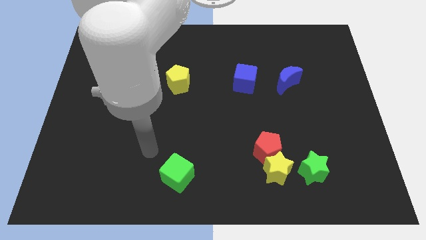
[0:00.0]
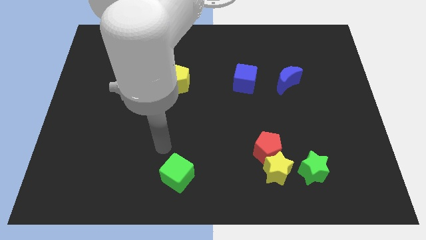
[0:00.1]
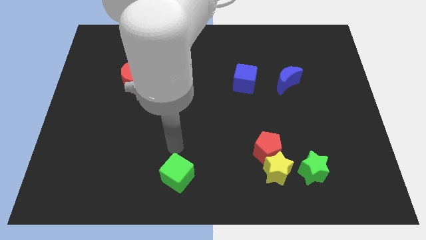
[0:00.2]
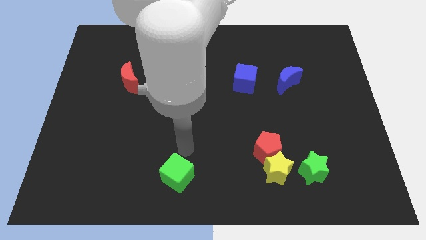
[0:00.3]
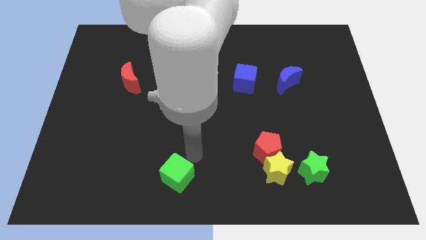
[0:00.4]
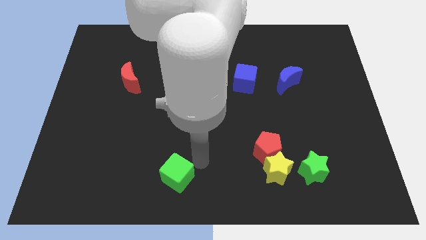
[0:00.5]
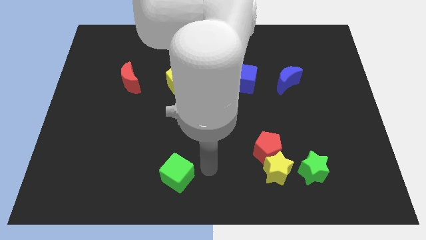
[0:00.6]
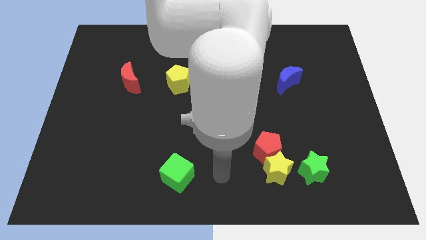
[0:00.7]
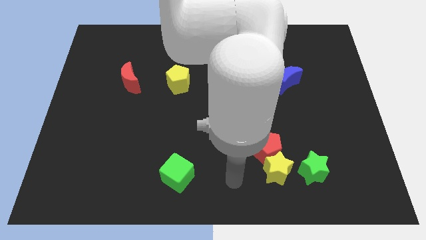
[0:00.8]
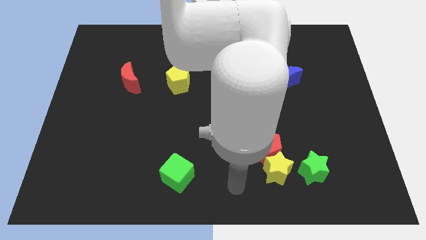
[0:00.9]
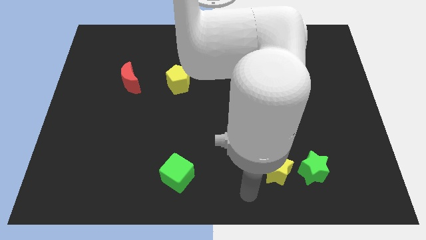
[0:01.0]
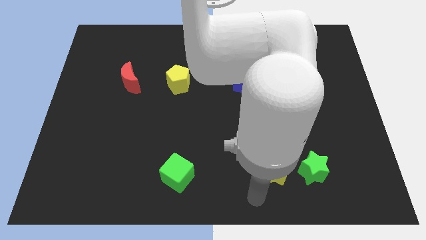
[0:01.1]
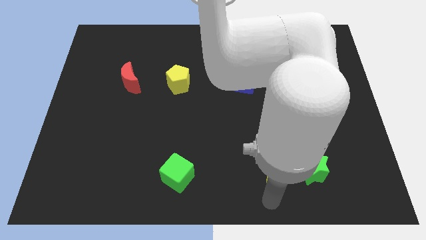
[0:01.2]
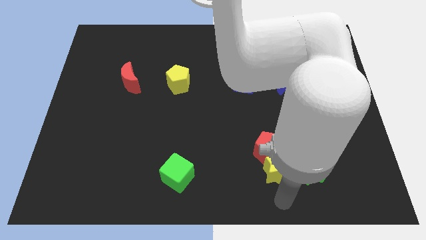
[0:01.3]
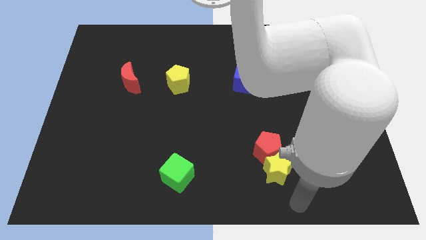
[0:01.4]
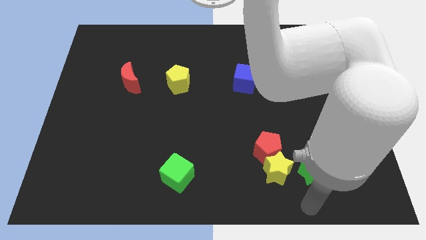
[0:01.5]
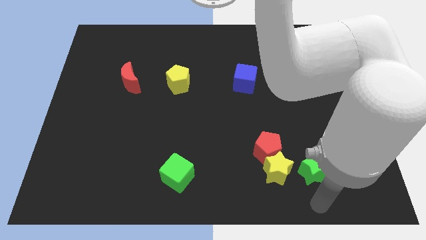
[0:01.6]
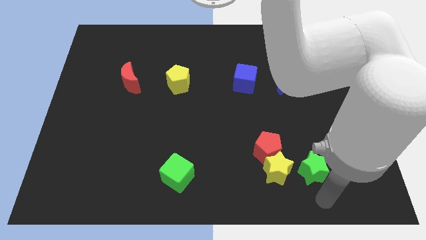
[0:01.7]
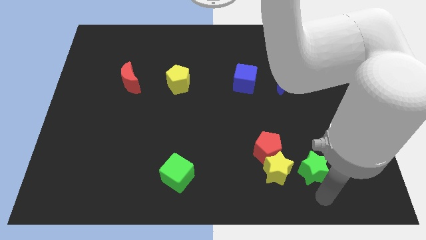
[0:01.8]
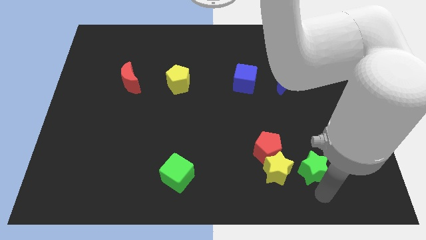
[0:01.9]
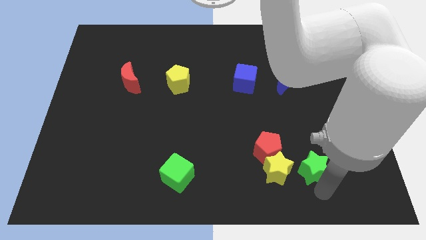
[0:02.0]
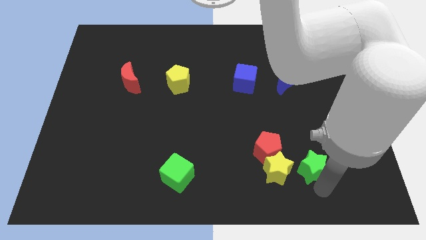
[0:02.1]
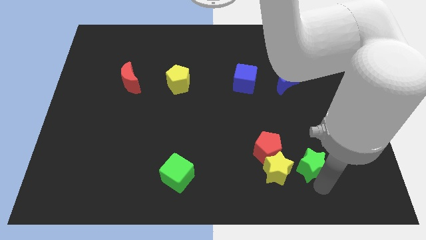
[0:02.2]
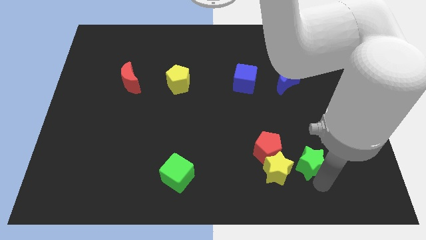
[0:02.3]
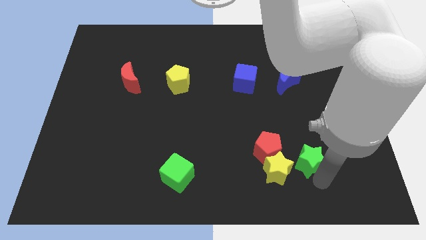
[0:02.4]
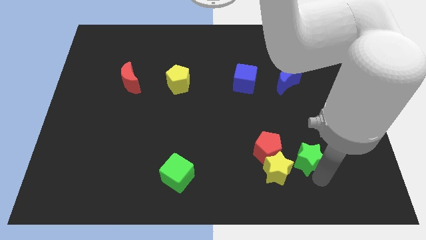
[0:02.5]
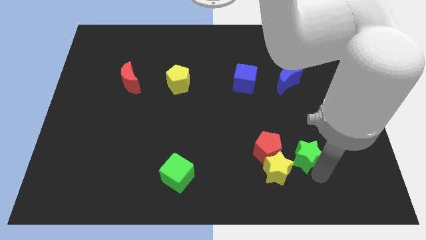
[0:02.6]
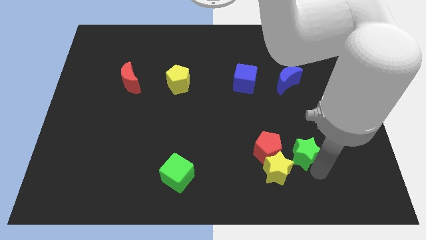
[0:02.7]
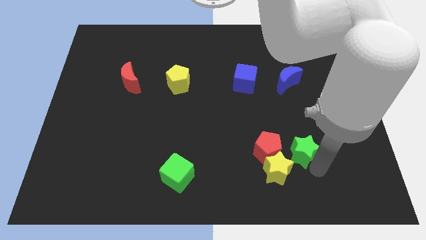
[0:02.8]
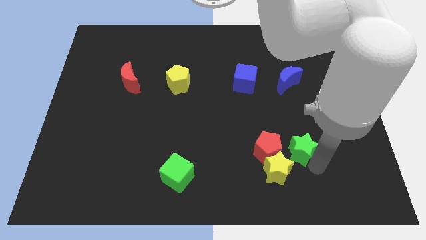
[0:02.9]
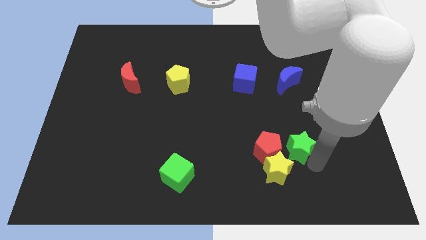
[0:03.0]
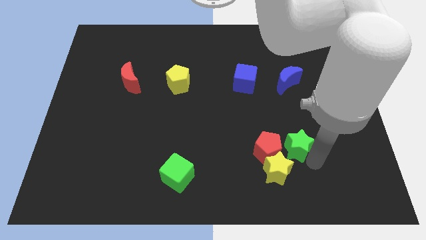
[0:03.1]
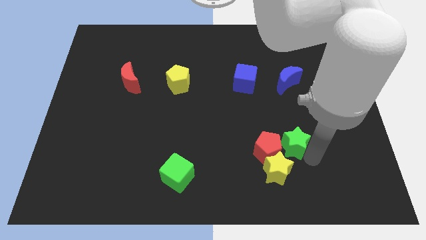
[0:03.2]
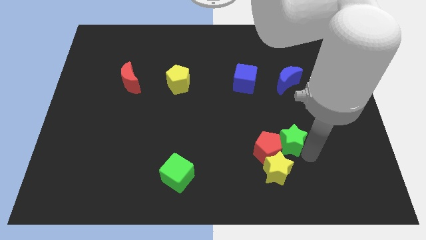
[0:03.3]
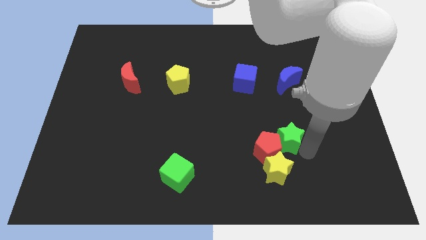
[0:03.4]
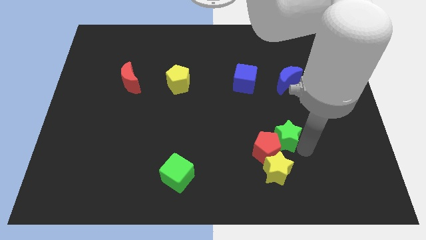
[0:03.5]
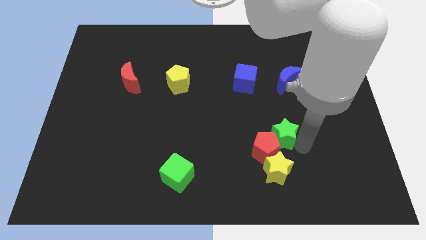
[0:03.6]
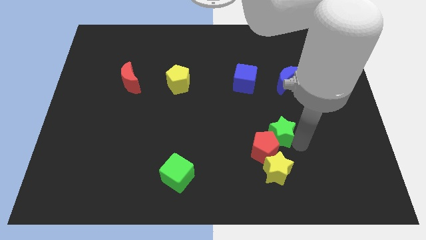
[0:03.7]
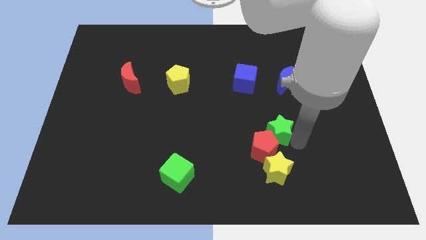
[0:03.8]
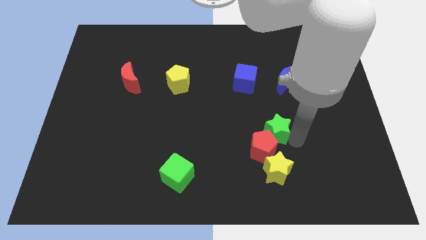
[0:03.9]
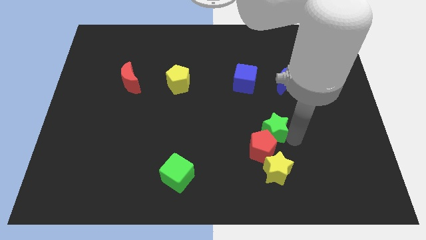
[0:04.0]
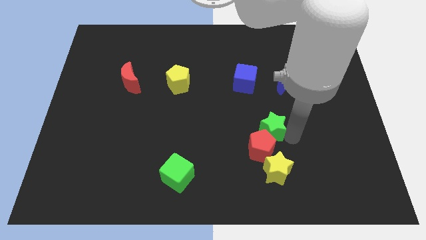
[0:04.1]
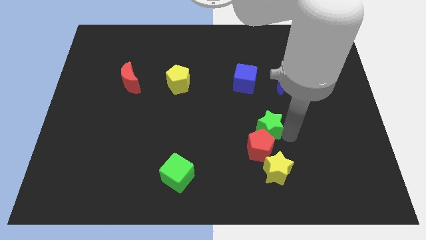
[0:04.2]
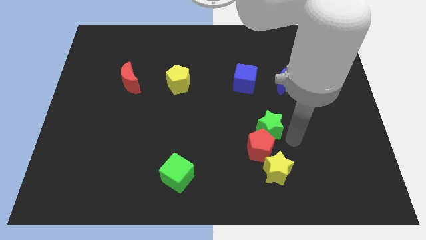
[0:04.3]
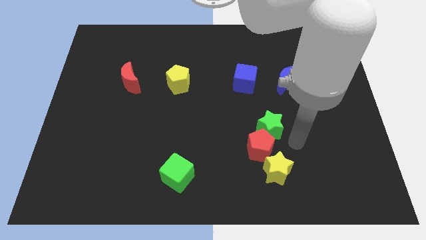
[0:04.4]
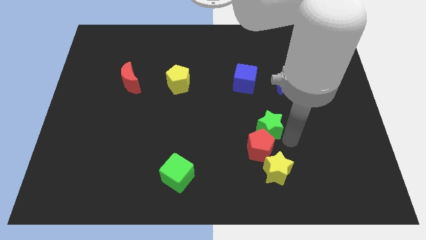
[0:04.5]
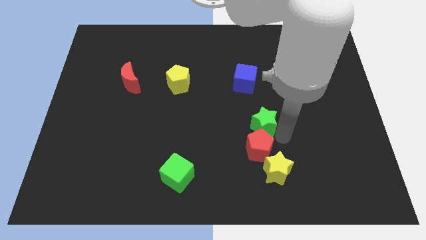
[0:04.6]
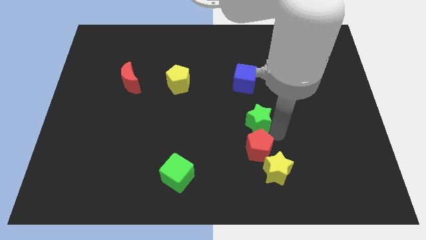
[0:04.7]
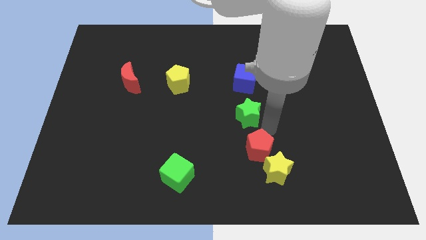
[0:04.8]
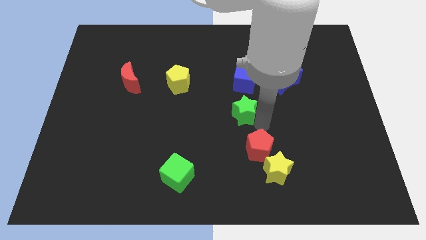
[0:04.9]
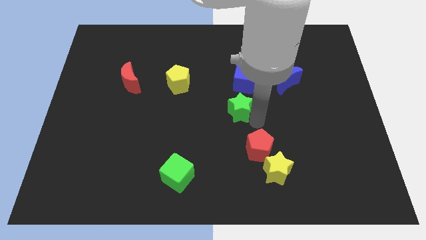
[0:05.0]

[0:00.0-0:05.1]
move the green star up and left diagonally

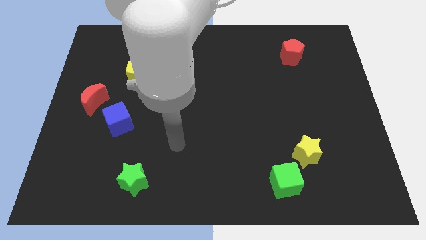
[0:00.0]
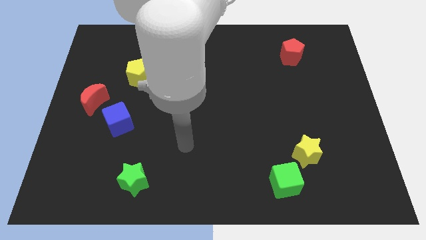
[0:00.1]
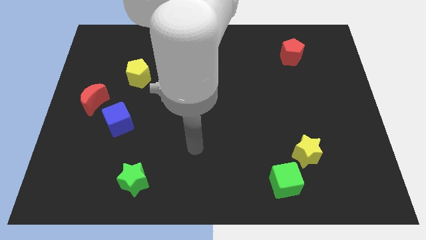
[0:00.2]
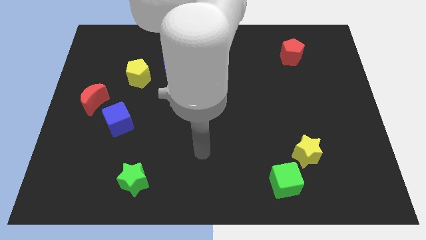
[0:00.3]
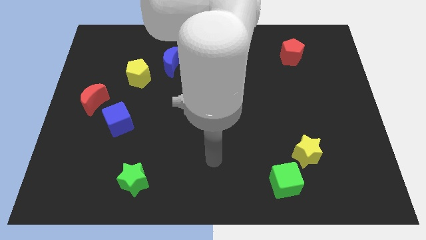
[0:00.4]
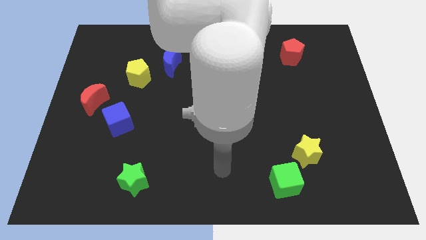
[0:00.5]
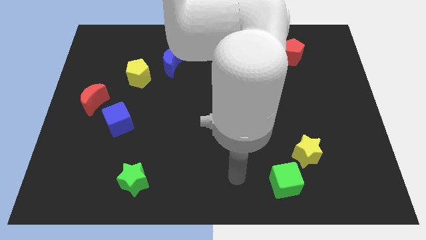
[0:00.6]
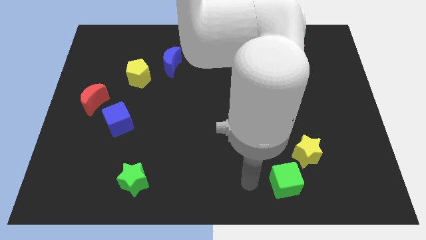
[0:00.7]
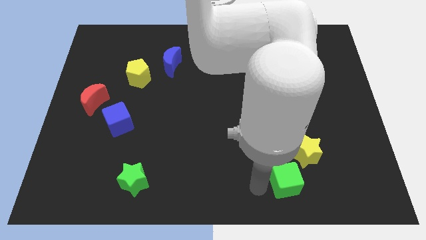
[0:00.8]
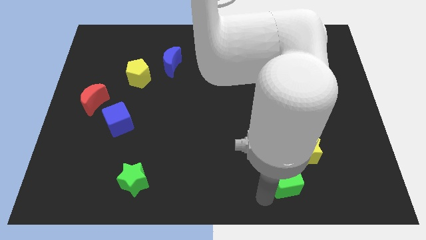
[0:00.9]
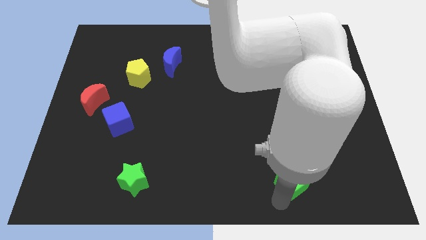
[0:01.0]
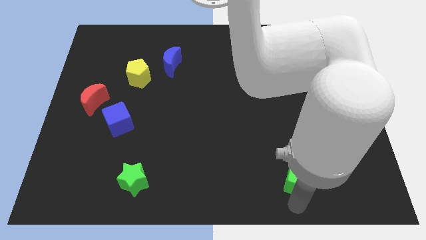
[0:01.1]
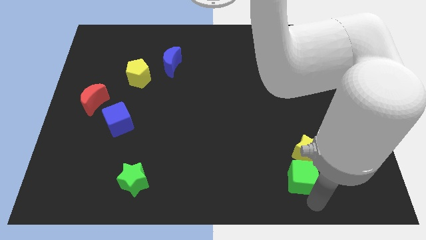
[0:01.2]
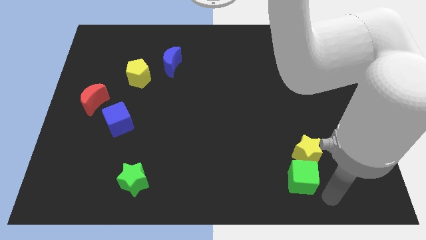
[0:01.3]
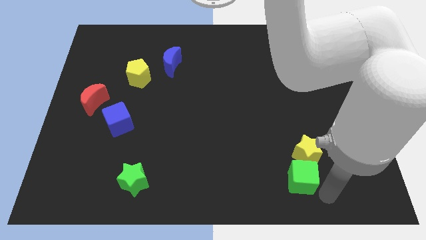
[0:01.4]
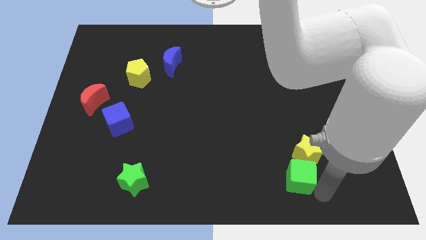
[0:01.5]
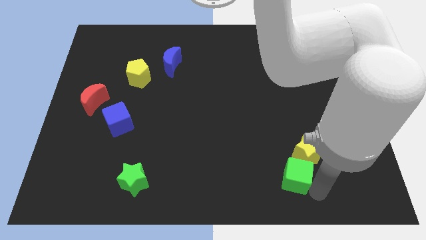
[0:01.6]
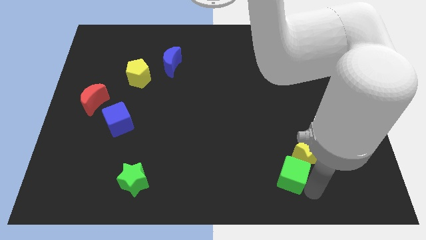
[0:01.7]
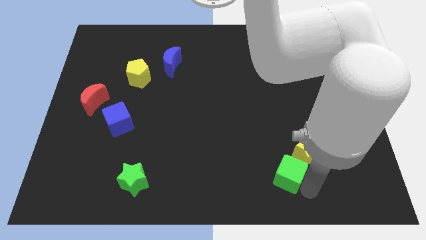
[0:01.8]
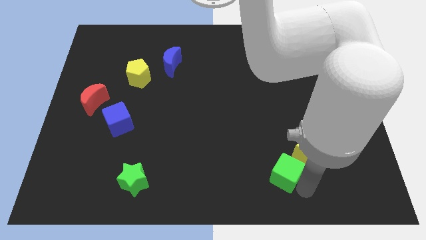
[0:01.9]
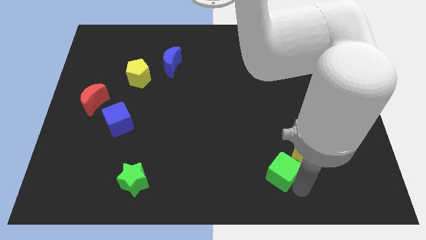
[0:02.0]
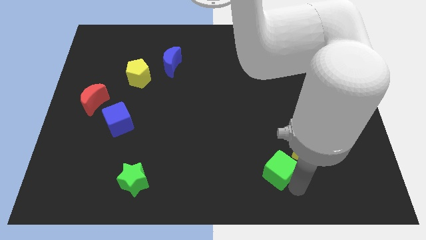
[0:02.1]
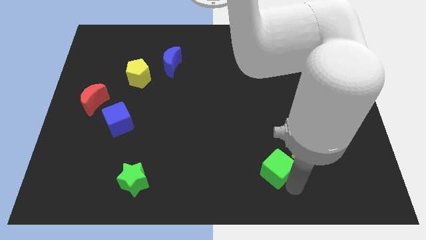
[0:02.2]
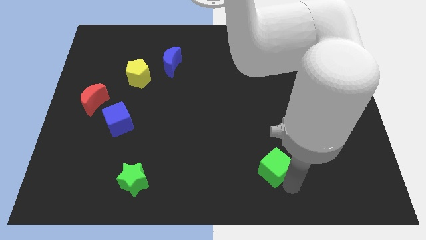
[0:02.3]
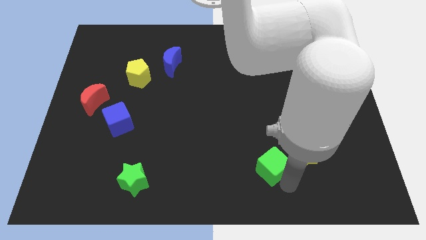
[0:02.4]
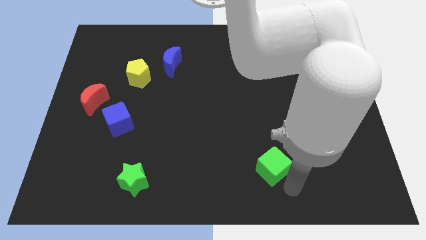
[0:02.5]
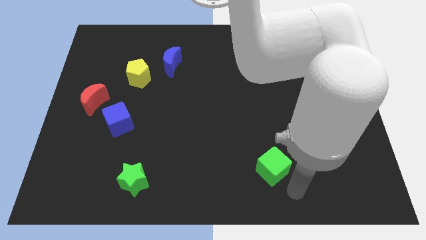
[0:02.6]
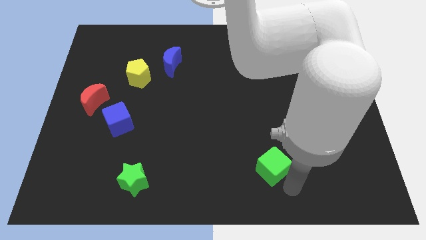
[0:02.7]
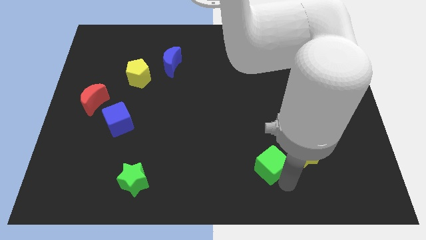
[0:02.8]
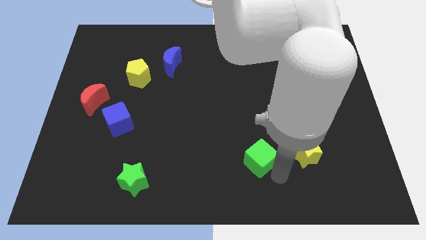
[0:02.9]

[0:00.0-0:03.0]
move the green cube slightly up and then to the left
